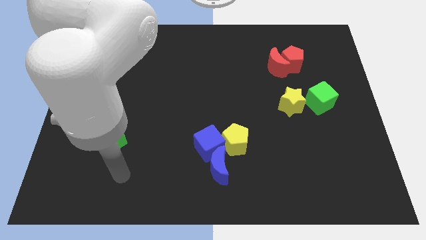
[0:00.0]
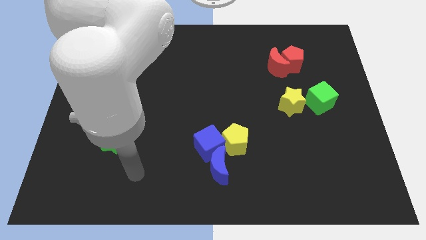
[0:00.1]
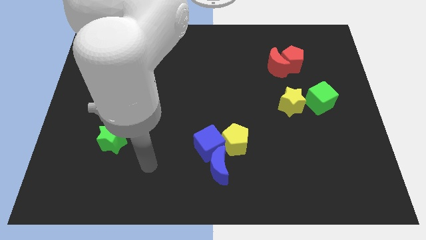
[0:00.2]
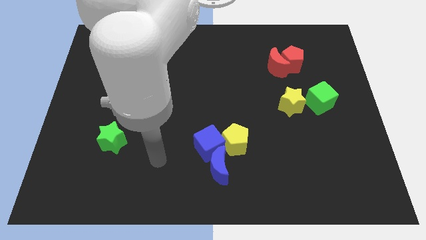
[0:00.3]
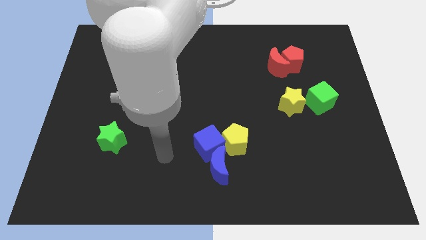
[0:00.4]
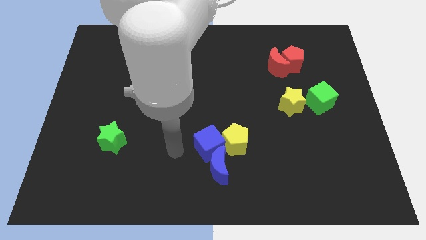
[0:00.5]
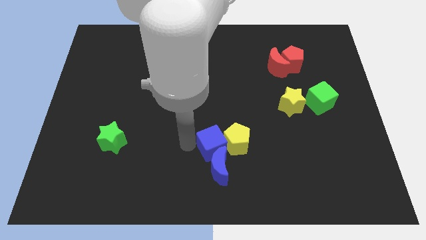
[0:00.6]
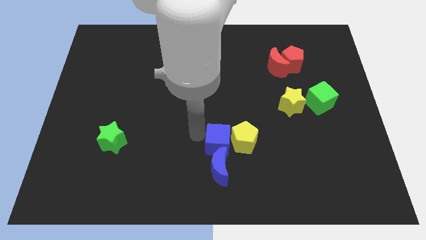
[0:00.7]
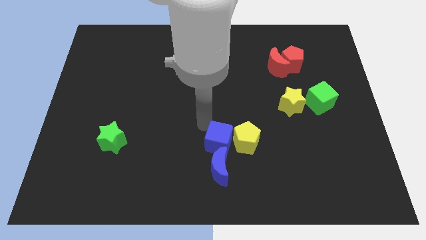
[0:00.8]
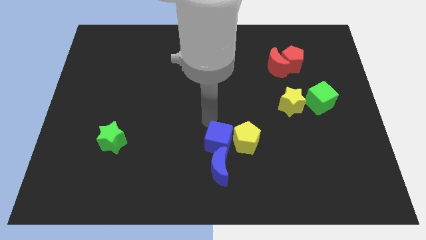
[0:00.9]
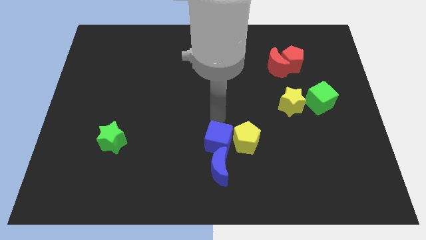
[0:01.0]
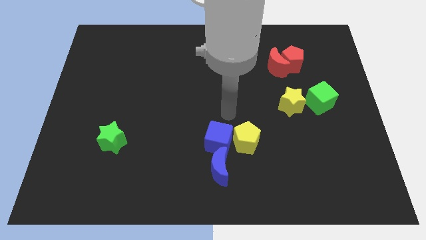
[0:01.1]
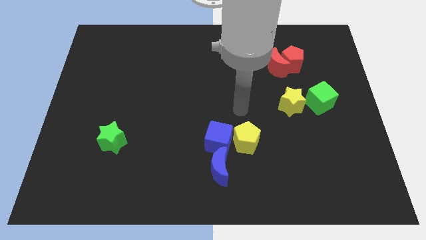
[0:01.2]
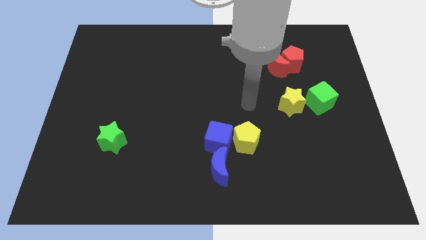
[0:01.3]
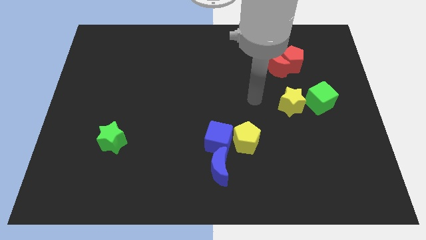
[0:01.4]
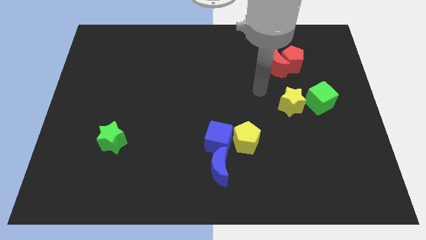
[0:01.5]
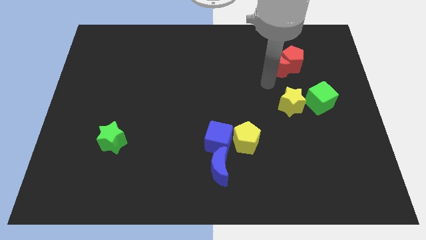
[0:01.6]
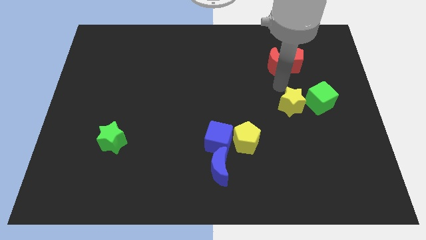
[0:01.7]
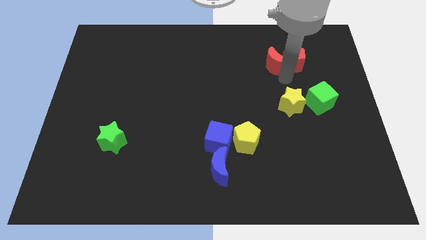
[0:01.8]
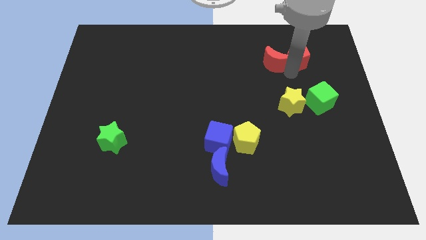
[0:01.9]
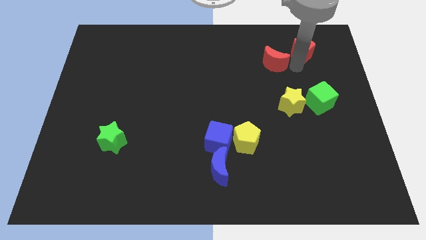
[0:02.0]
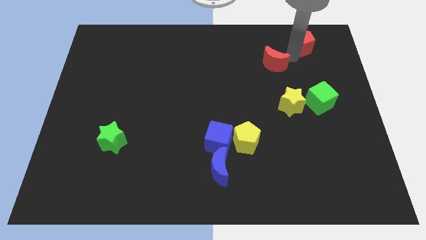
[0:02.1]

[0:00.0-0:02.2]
pull the red moon apart from the red pentagon

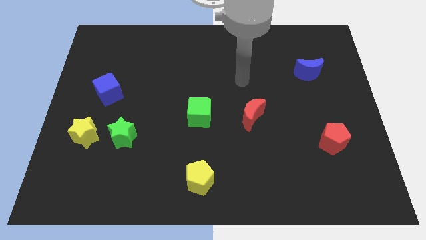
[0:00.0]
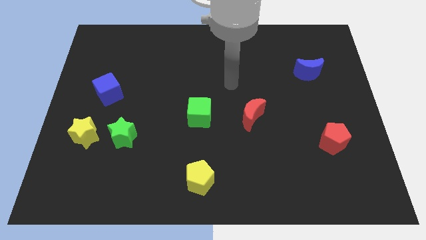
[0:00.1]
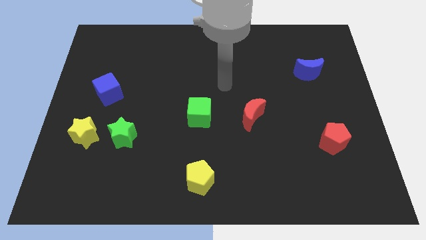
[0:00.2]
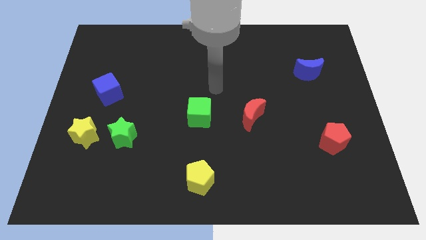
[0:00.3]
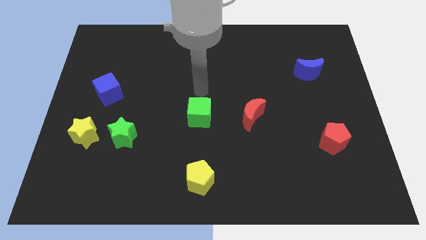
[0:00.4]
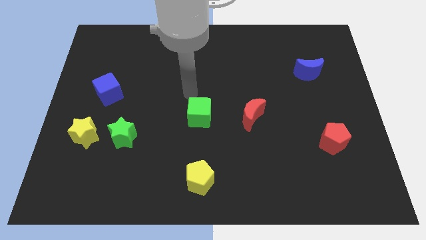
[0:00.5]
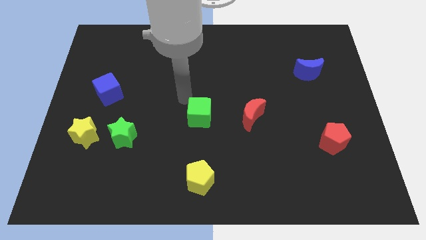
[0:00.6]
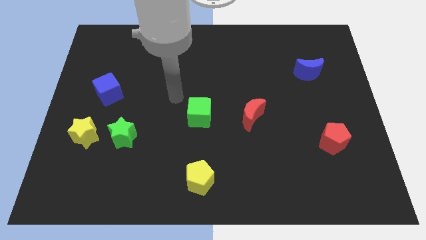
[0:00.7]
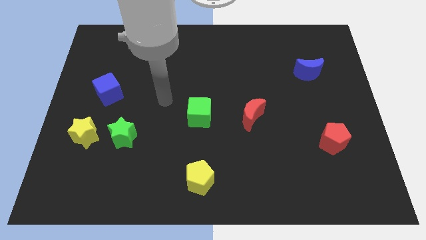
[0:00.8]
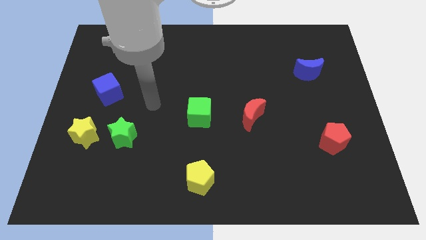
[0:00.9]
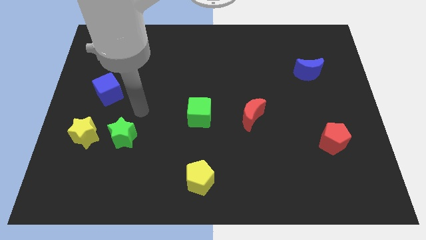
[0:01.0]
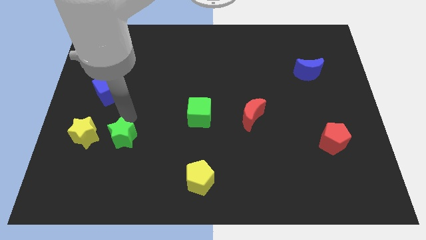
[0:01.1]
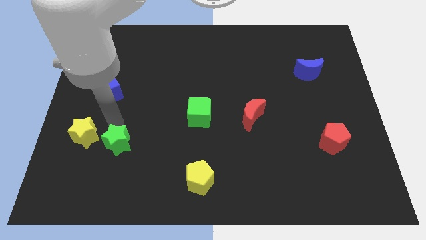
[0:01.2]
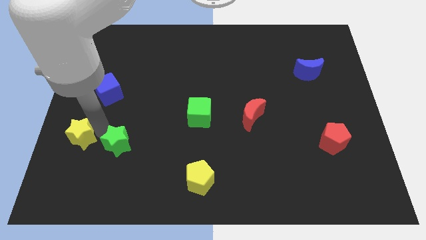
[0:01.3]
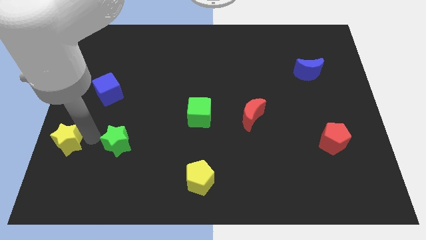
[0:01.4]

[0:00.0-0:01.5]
pull the green star apart from the yellow star

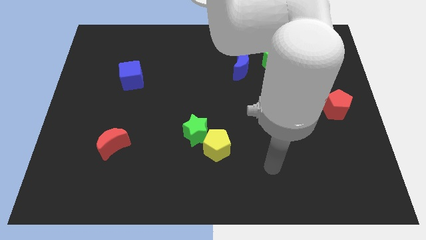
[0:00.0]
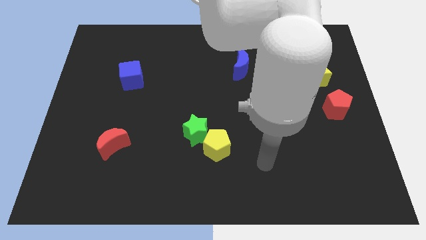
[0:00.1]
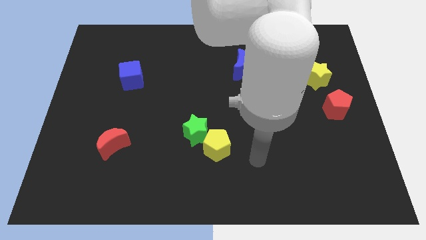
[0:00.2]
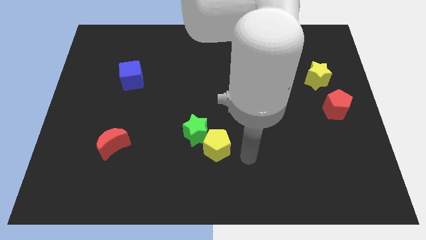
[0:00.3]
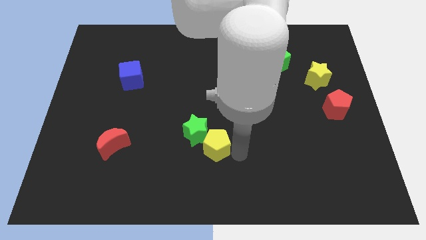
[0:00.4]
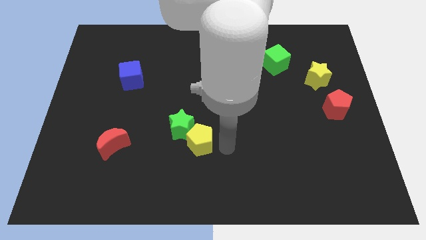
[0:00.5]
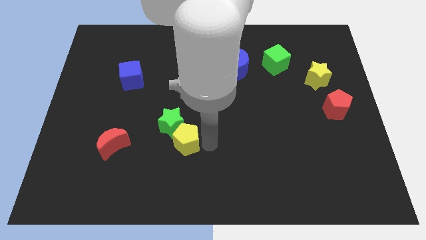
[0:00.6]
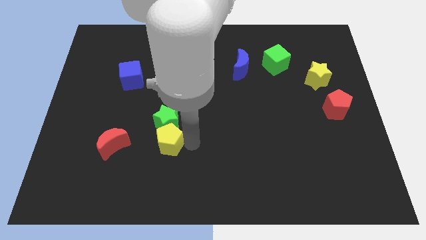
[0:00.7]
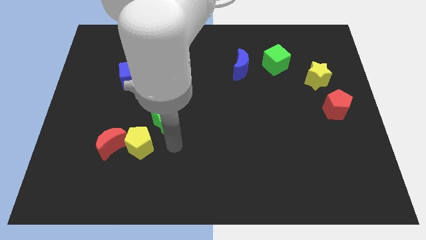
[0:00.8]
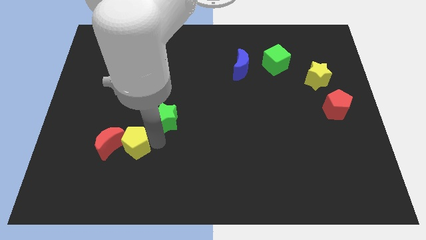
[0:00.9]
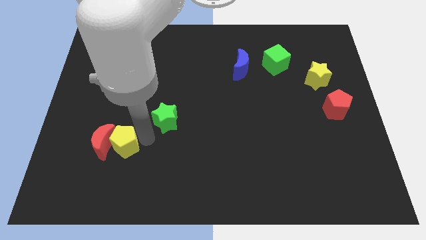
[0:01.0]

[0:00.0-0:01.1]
separate the green star from the yellow pentagon

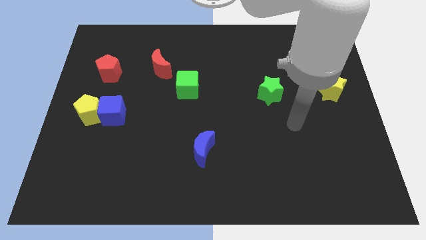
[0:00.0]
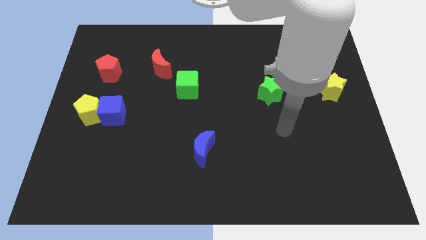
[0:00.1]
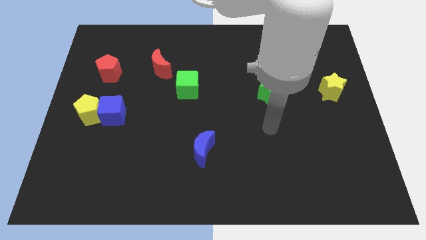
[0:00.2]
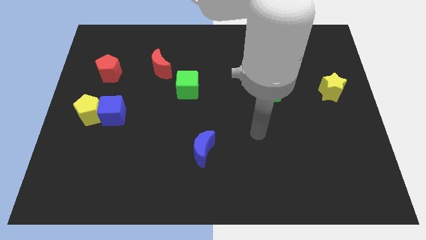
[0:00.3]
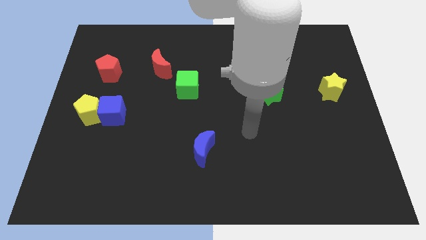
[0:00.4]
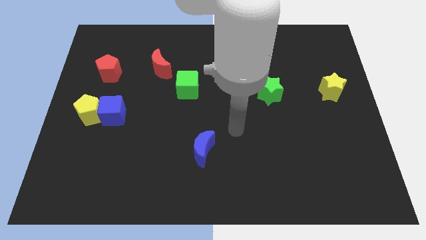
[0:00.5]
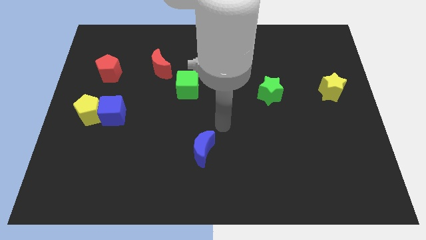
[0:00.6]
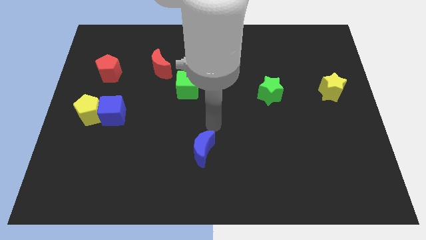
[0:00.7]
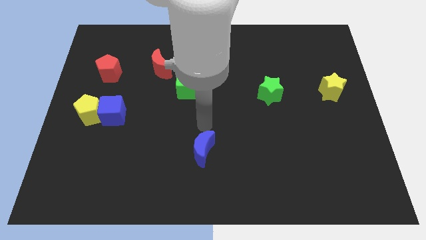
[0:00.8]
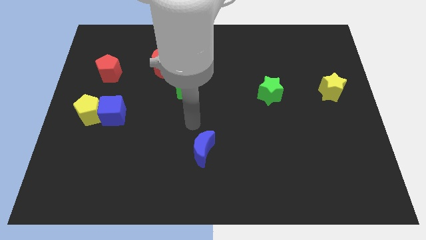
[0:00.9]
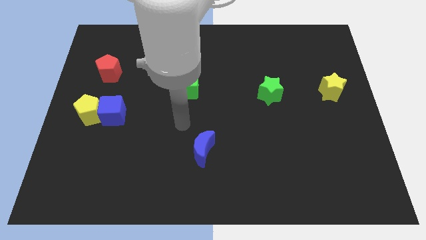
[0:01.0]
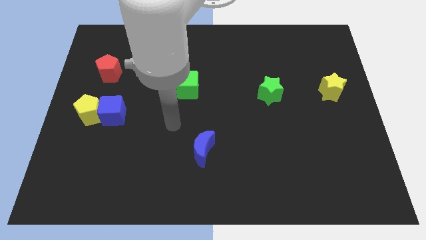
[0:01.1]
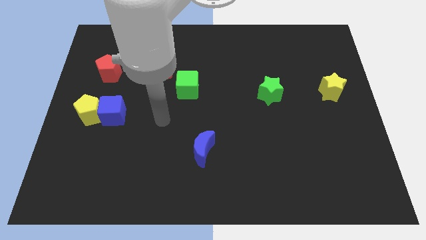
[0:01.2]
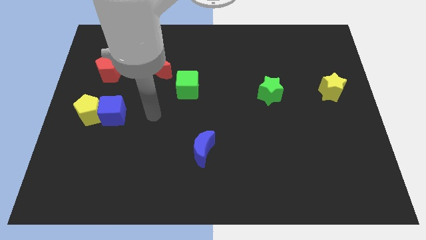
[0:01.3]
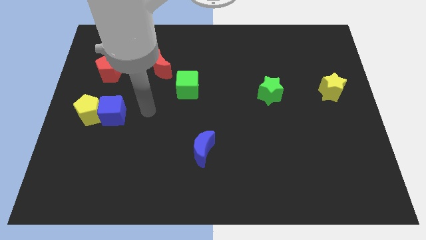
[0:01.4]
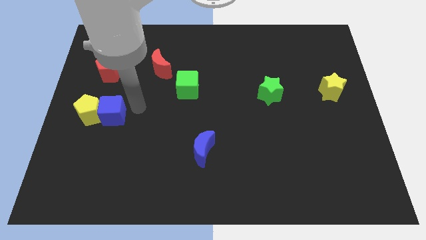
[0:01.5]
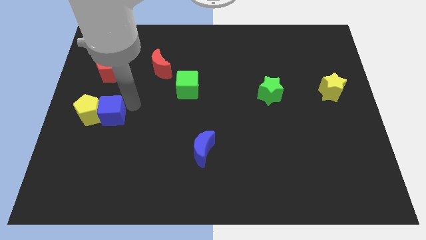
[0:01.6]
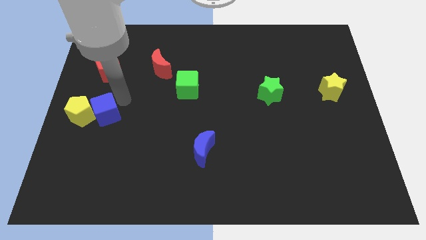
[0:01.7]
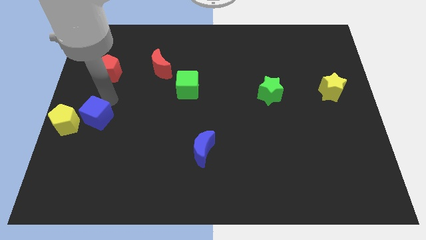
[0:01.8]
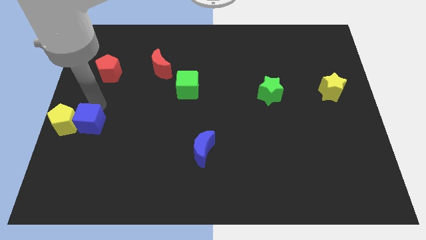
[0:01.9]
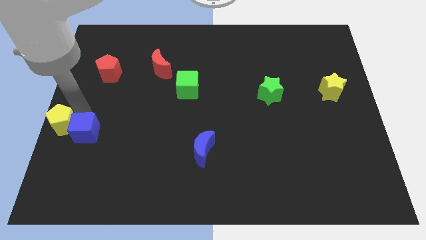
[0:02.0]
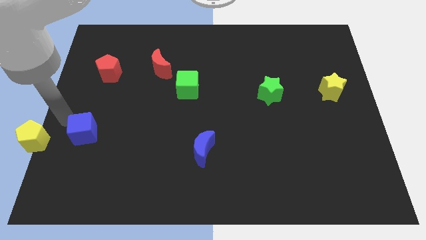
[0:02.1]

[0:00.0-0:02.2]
pull the blue cube apart from the yellow pentagon

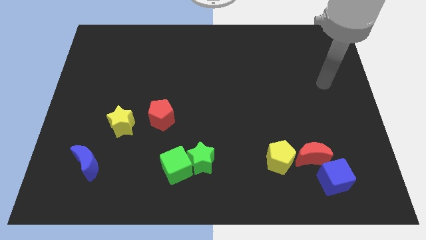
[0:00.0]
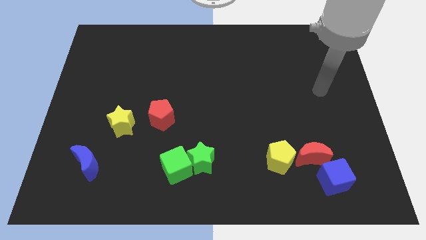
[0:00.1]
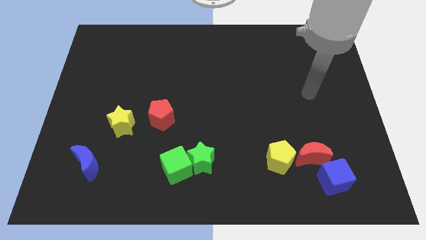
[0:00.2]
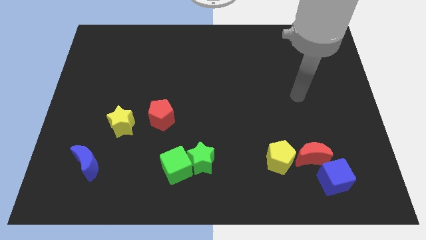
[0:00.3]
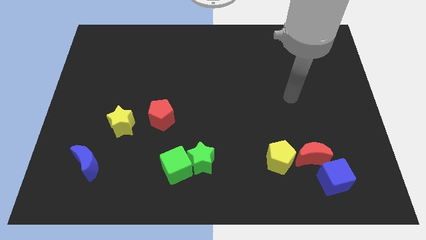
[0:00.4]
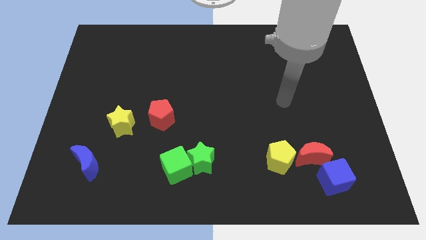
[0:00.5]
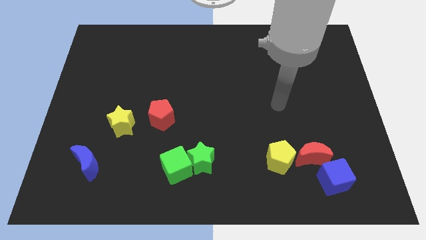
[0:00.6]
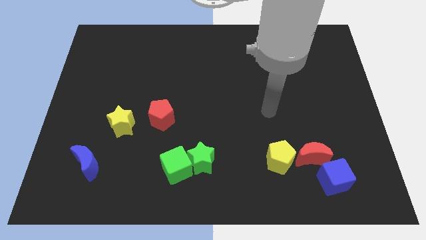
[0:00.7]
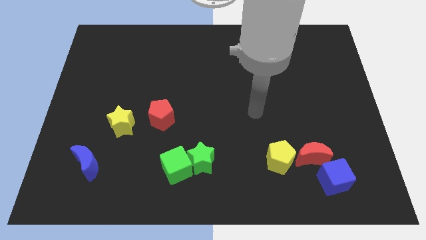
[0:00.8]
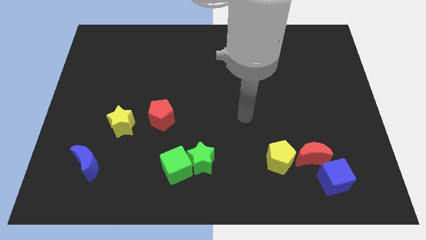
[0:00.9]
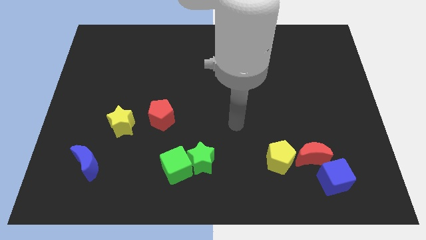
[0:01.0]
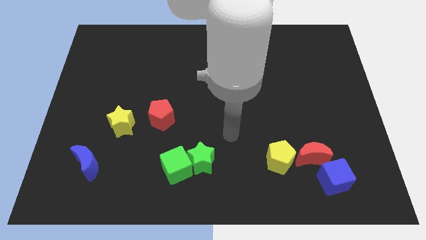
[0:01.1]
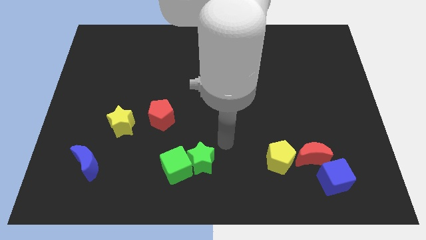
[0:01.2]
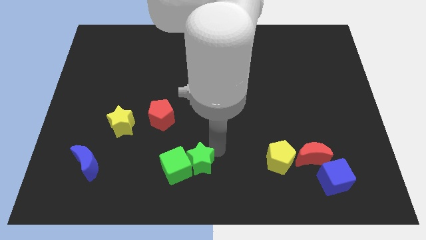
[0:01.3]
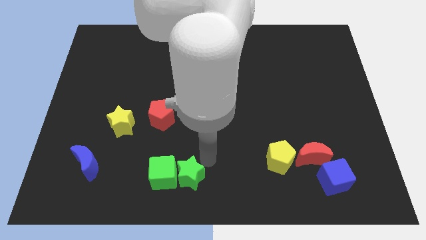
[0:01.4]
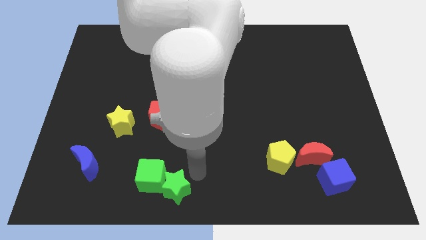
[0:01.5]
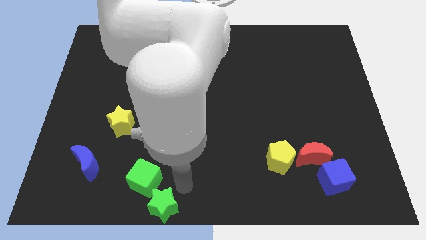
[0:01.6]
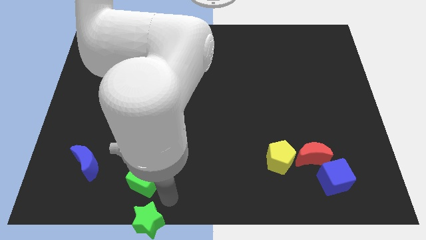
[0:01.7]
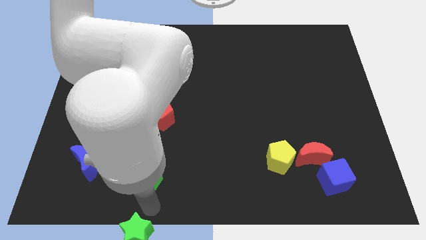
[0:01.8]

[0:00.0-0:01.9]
pull the green cube apart from the green star

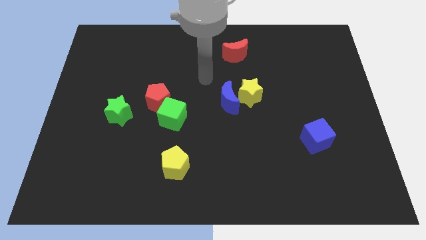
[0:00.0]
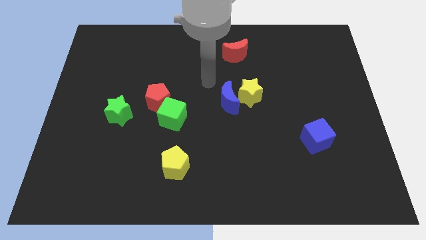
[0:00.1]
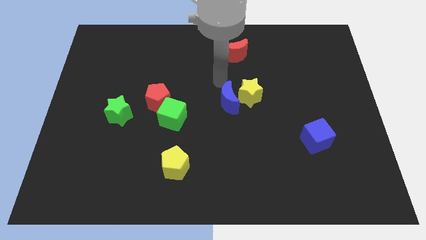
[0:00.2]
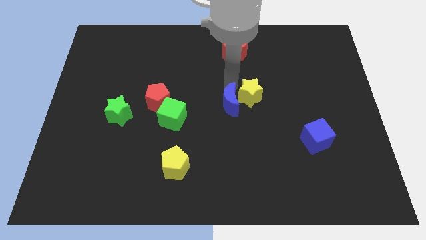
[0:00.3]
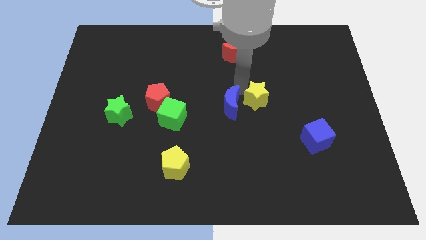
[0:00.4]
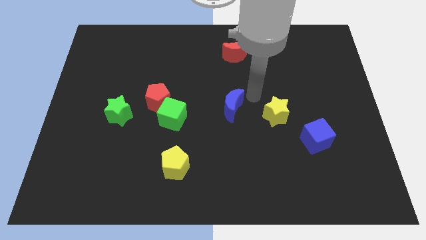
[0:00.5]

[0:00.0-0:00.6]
separate the blue moon from the yellow star
